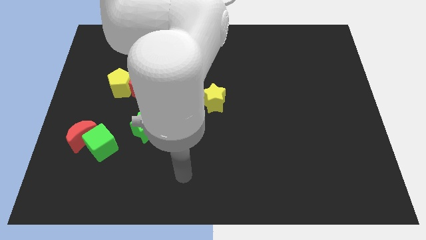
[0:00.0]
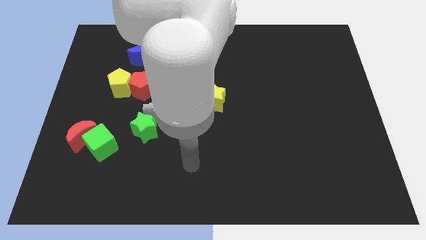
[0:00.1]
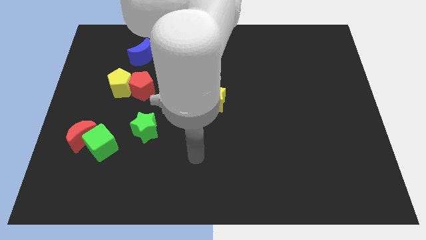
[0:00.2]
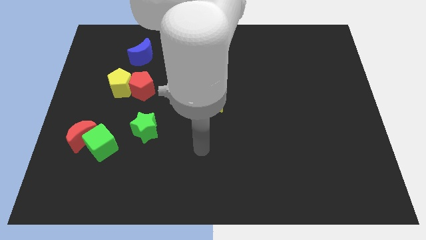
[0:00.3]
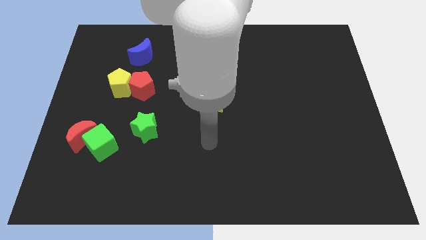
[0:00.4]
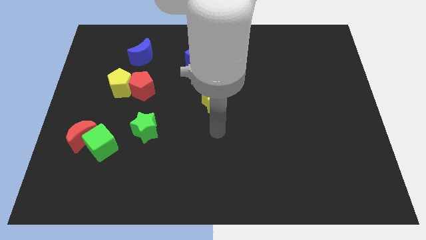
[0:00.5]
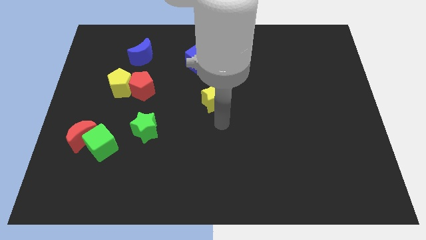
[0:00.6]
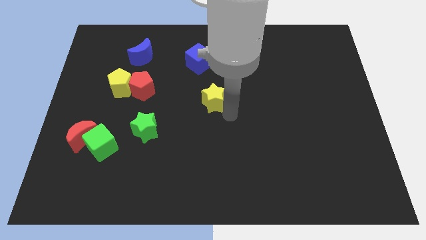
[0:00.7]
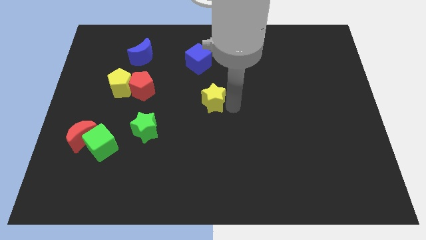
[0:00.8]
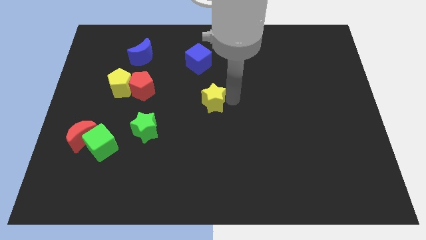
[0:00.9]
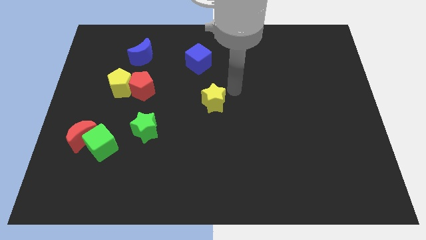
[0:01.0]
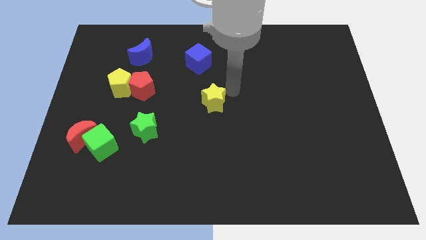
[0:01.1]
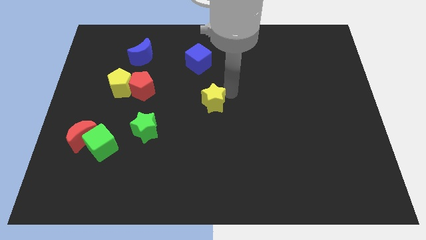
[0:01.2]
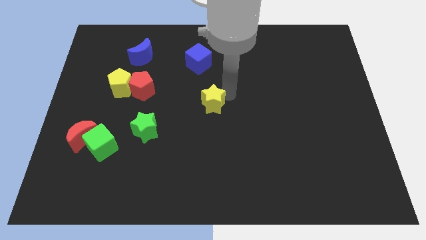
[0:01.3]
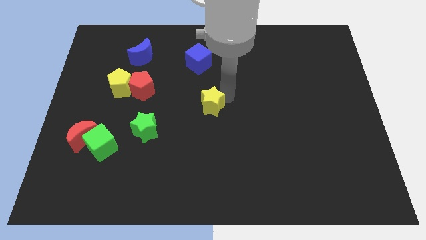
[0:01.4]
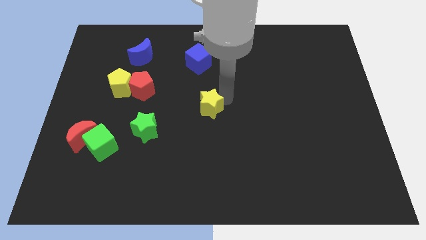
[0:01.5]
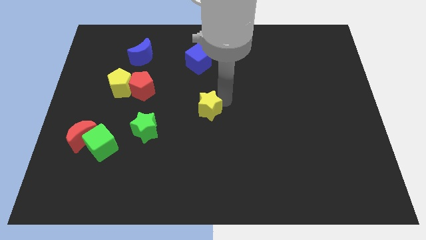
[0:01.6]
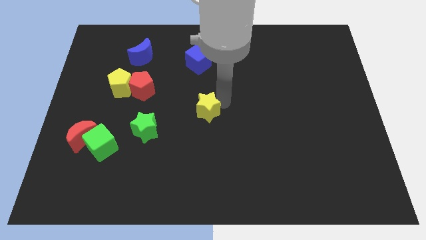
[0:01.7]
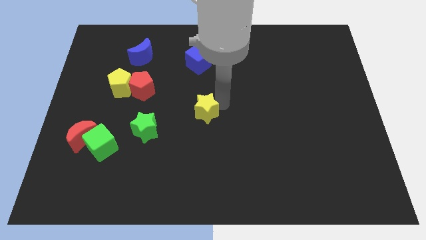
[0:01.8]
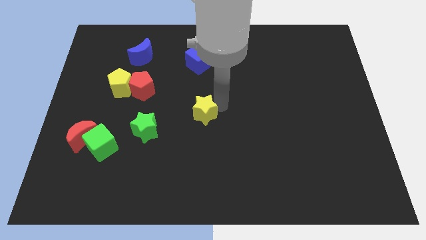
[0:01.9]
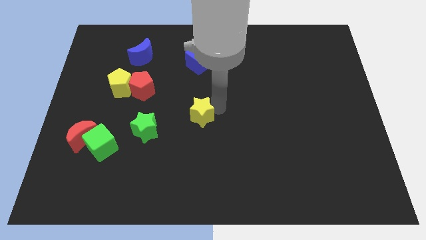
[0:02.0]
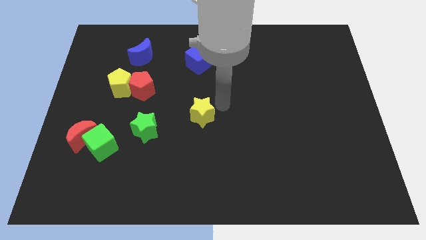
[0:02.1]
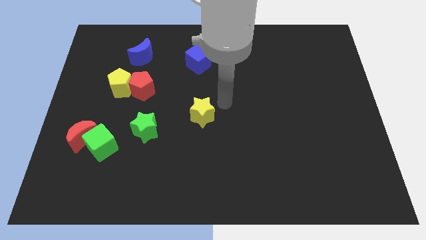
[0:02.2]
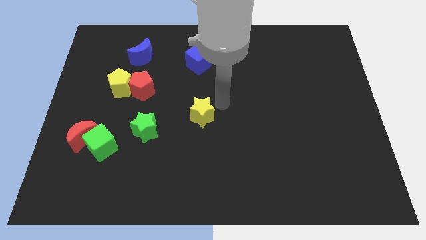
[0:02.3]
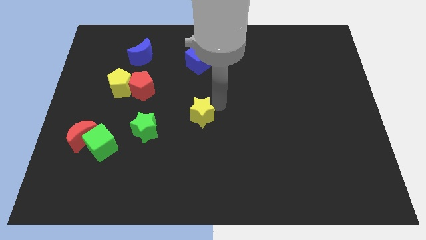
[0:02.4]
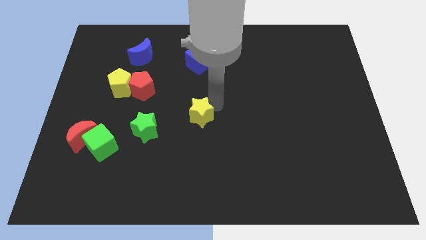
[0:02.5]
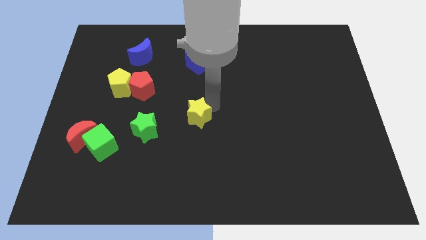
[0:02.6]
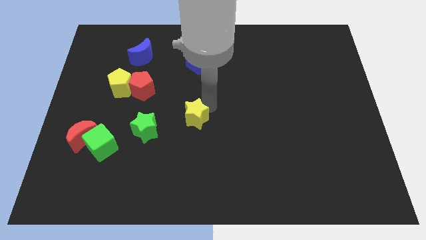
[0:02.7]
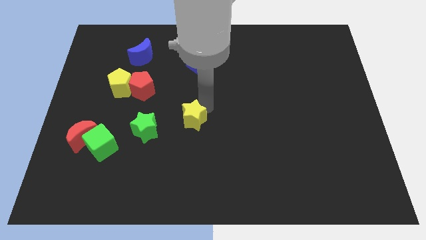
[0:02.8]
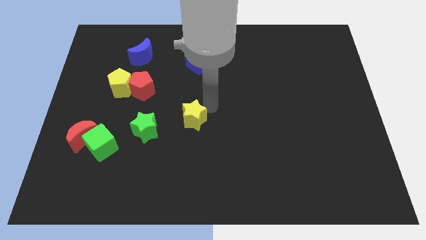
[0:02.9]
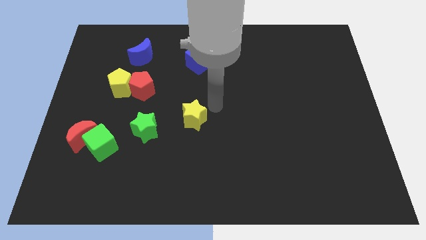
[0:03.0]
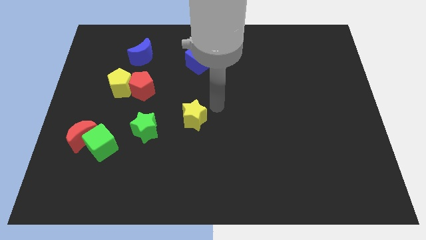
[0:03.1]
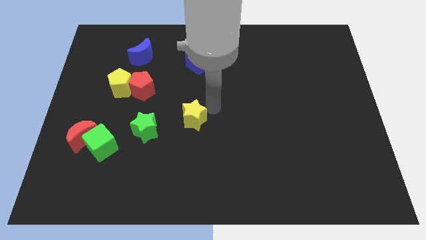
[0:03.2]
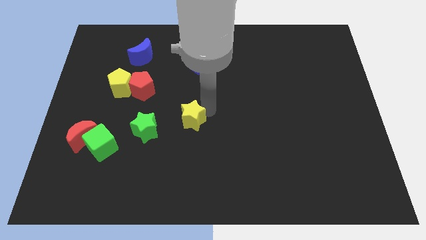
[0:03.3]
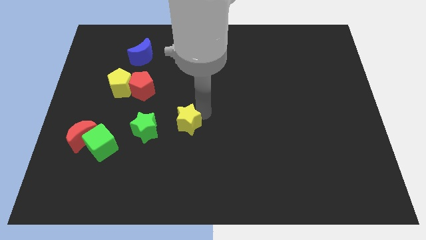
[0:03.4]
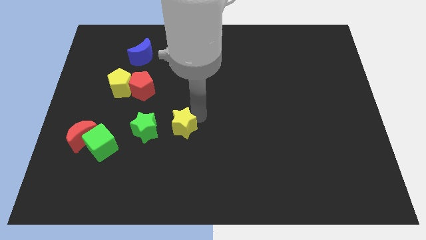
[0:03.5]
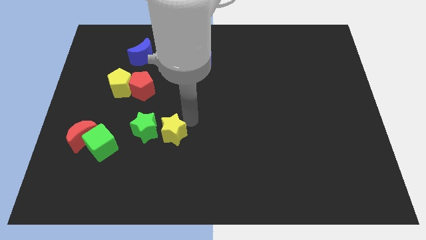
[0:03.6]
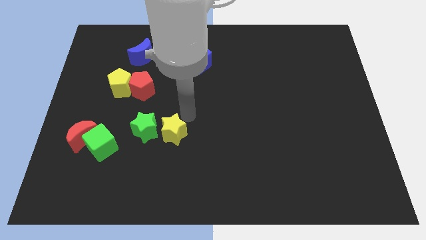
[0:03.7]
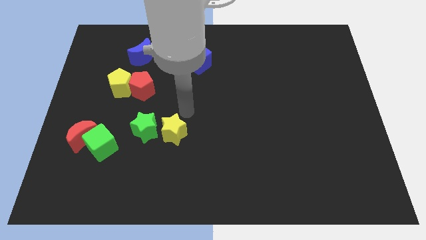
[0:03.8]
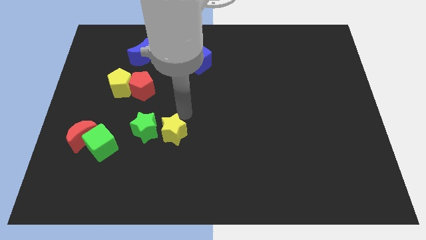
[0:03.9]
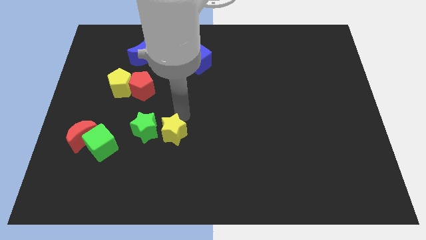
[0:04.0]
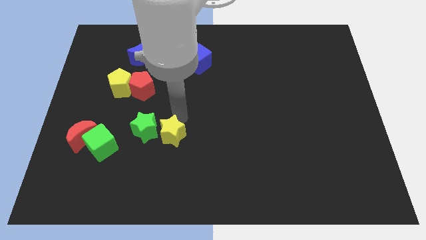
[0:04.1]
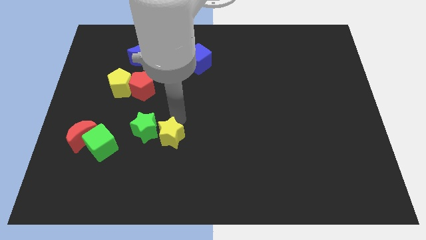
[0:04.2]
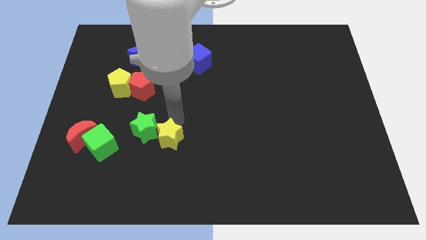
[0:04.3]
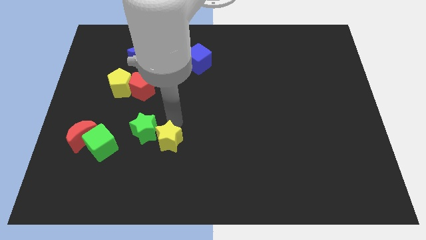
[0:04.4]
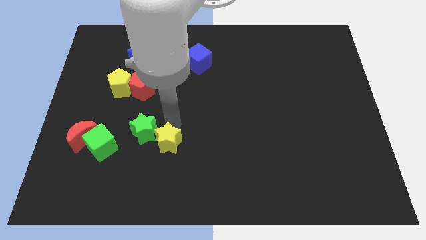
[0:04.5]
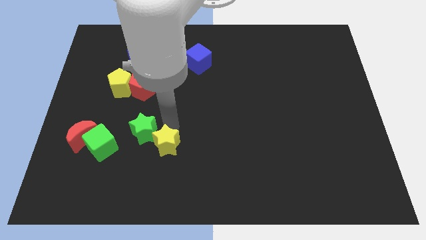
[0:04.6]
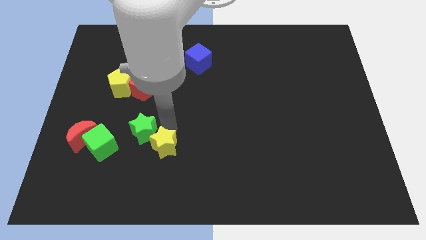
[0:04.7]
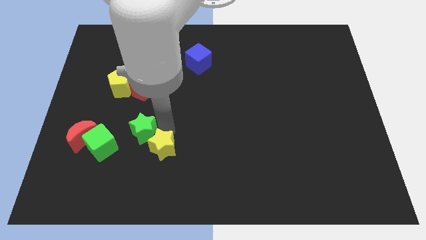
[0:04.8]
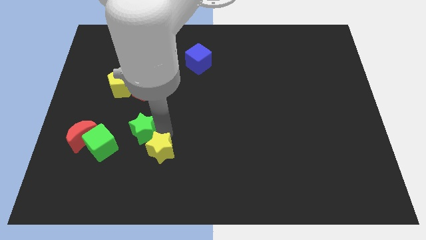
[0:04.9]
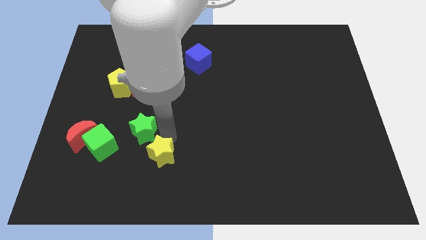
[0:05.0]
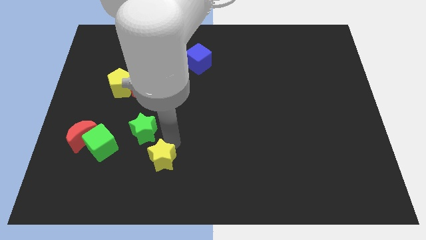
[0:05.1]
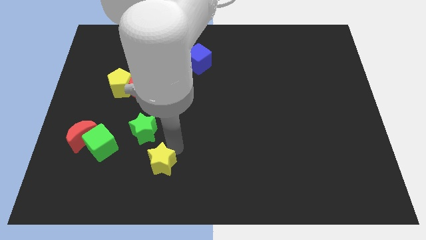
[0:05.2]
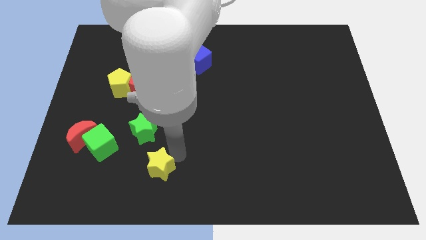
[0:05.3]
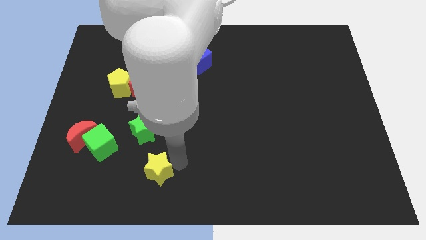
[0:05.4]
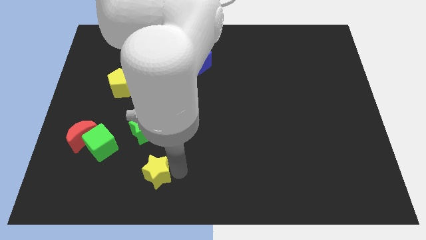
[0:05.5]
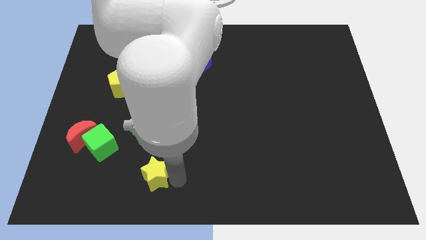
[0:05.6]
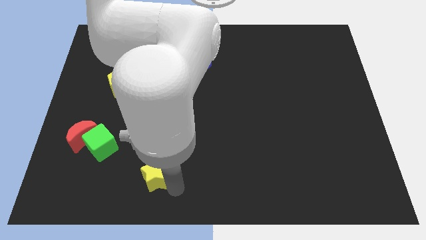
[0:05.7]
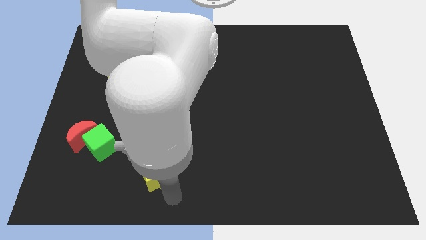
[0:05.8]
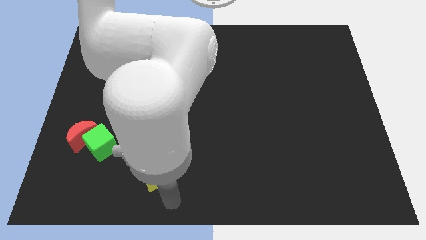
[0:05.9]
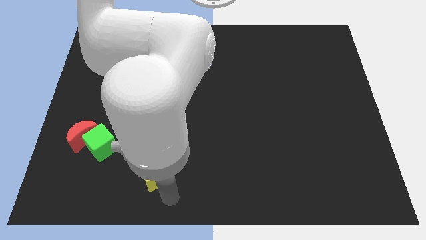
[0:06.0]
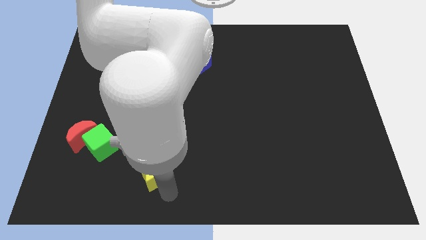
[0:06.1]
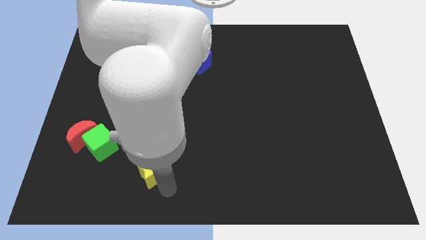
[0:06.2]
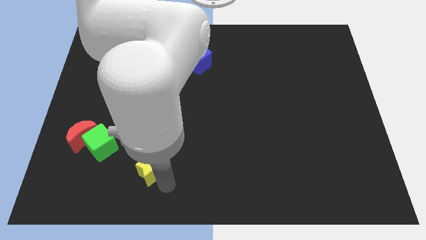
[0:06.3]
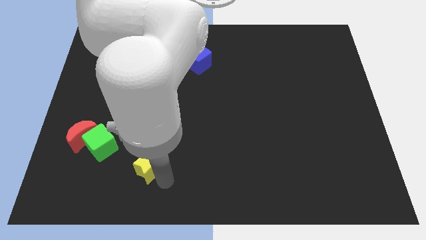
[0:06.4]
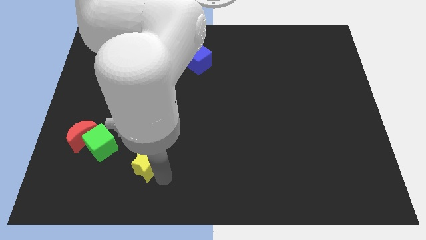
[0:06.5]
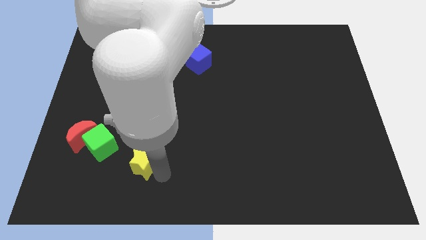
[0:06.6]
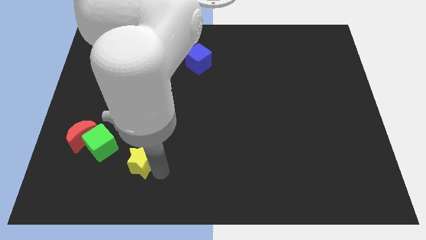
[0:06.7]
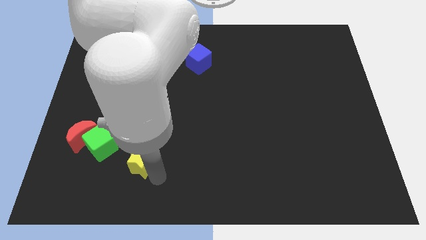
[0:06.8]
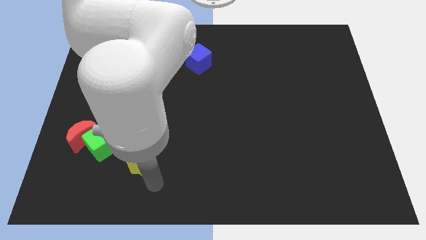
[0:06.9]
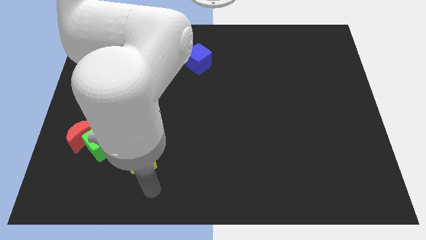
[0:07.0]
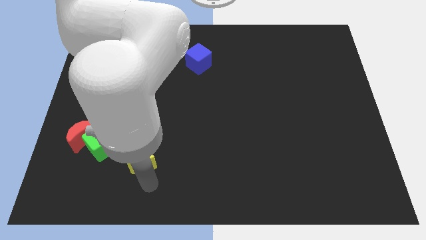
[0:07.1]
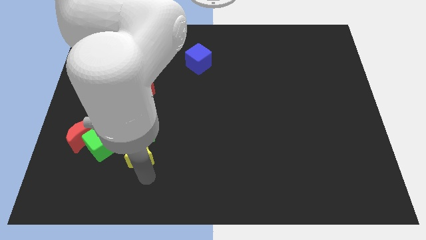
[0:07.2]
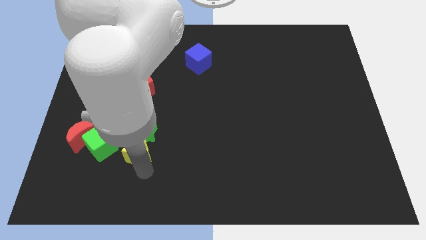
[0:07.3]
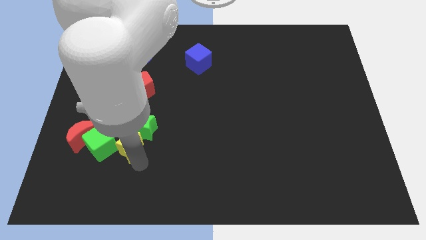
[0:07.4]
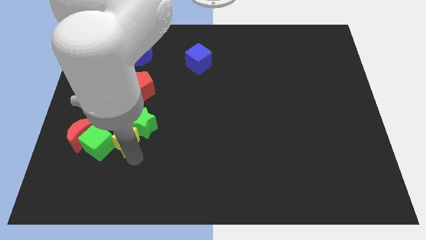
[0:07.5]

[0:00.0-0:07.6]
put the yellow star to the bottom of the red pentagon

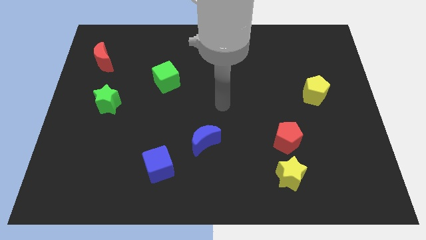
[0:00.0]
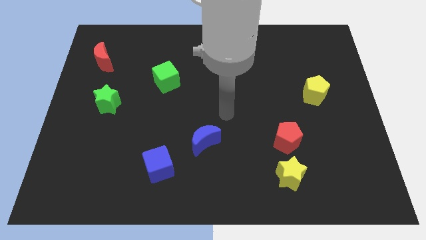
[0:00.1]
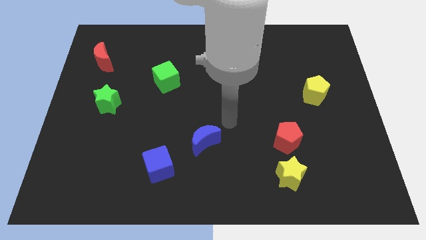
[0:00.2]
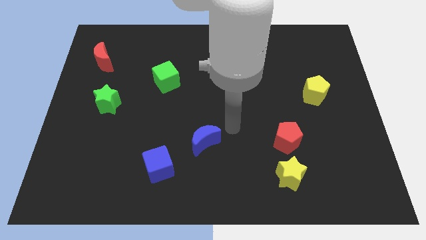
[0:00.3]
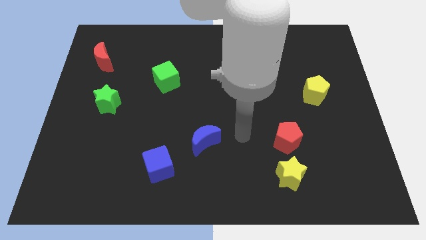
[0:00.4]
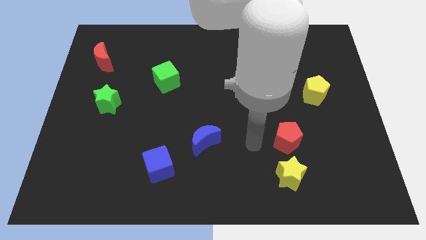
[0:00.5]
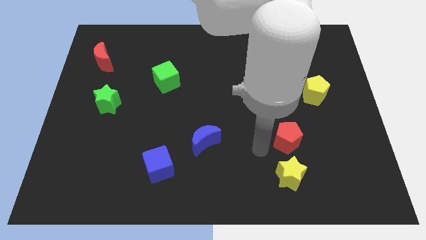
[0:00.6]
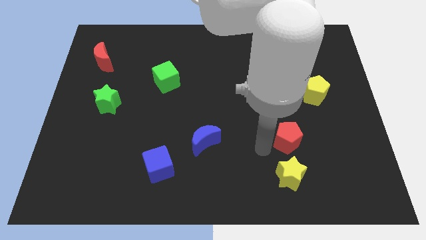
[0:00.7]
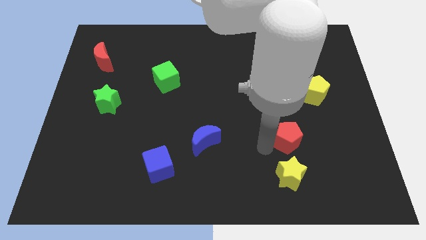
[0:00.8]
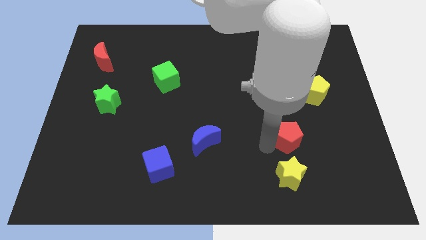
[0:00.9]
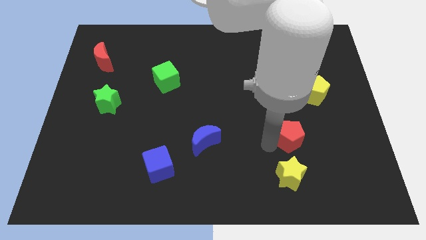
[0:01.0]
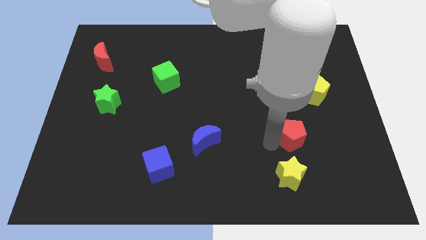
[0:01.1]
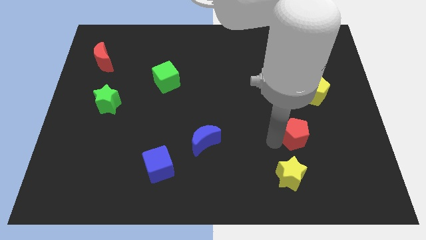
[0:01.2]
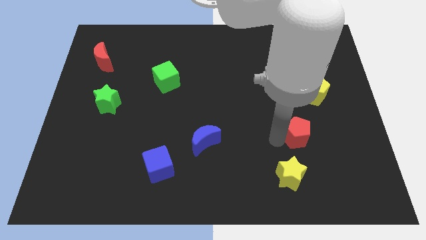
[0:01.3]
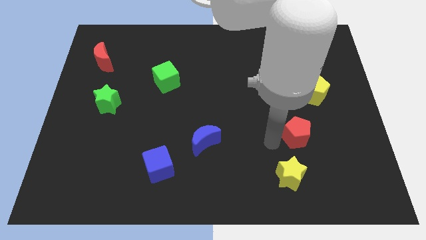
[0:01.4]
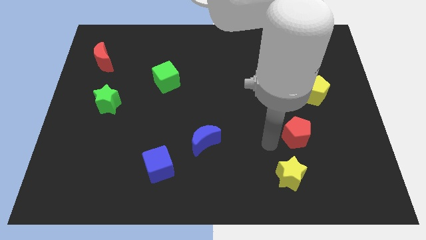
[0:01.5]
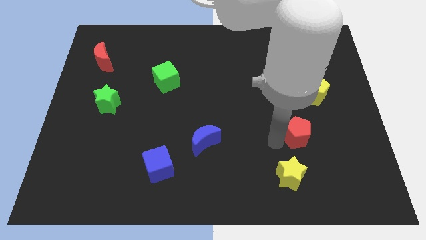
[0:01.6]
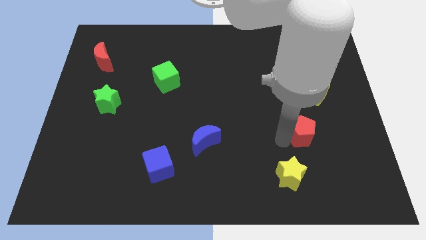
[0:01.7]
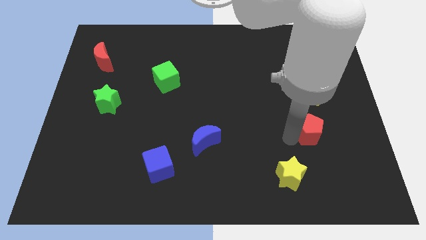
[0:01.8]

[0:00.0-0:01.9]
put the red pentagon below the yellow pentagon
